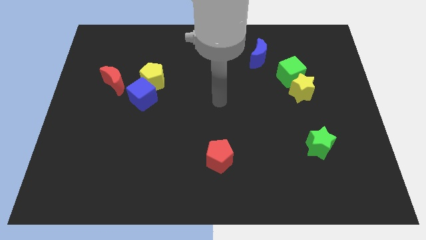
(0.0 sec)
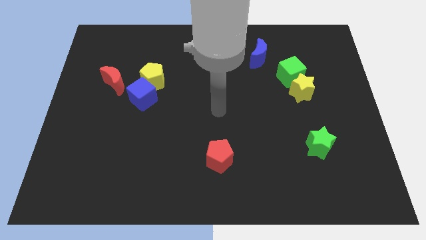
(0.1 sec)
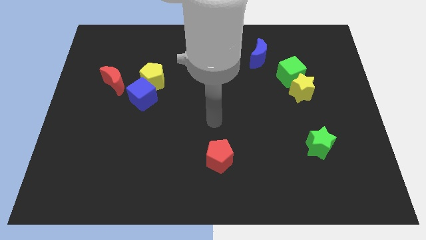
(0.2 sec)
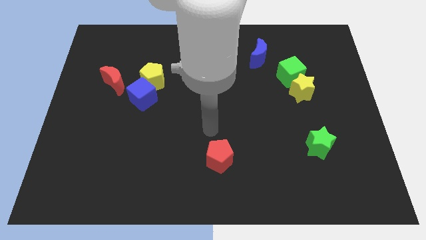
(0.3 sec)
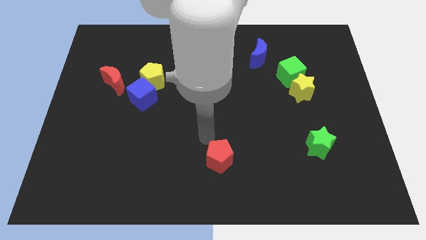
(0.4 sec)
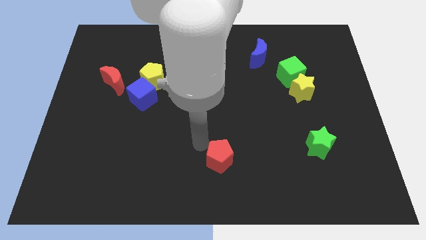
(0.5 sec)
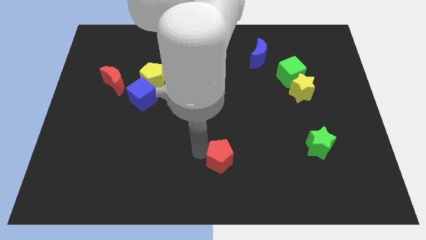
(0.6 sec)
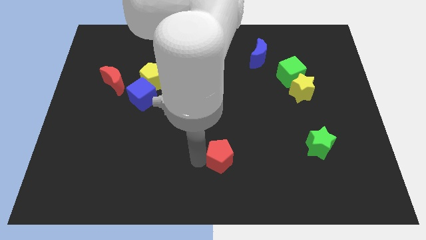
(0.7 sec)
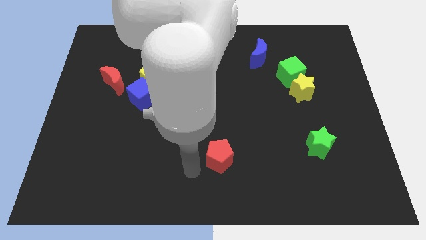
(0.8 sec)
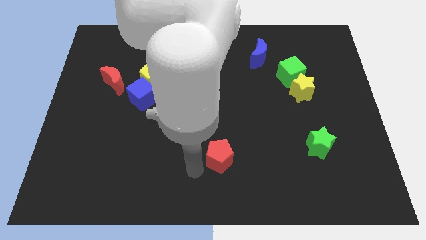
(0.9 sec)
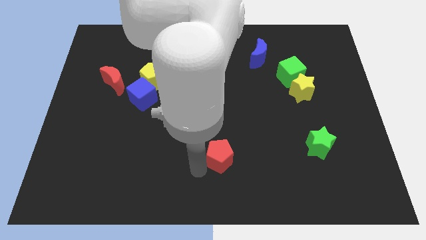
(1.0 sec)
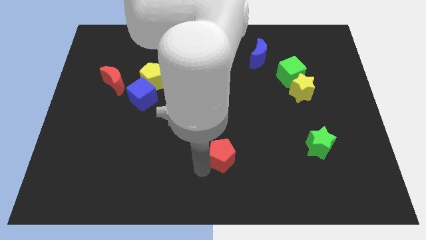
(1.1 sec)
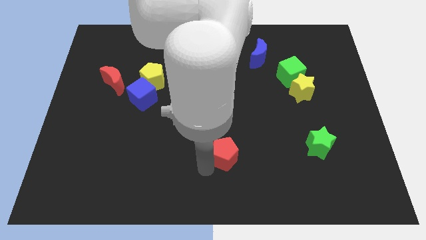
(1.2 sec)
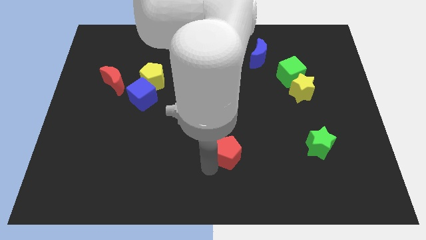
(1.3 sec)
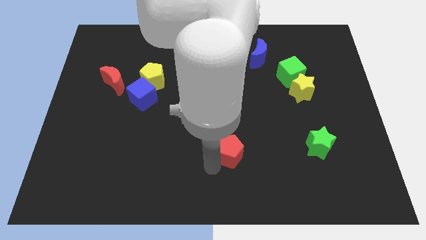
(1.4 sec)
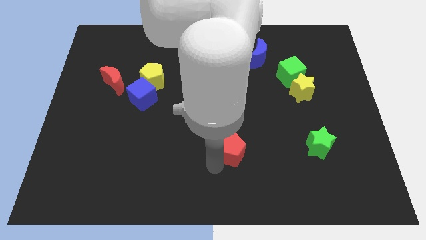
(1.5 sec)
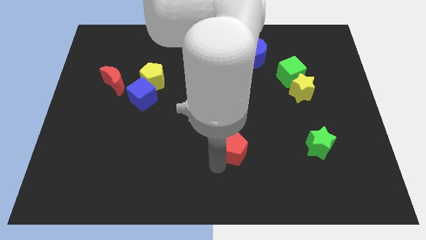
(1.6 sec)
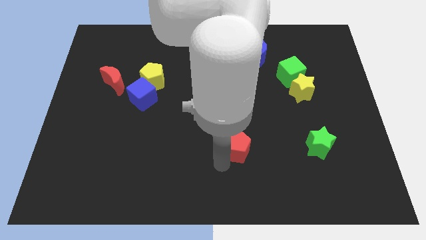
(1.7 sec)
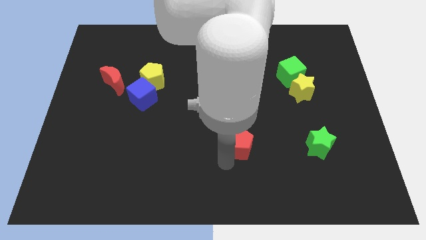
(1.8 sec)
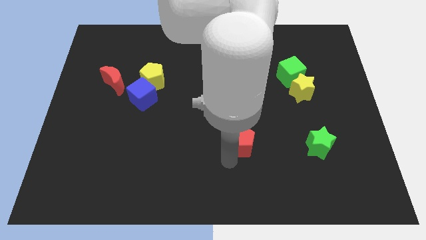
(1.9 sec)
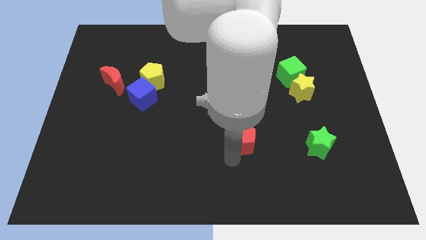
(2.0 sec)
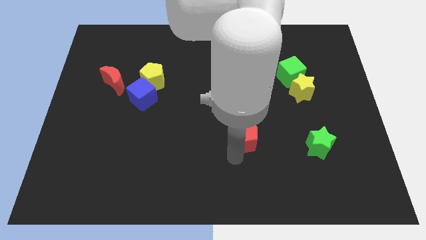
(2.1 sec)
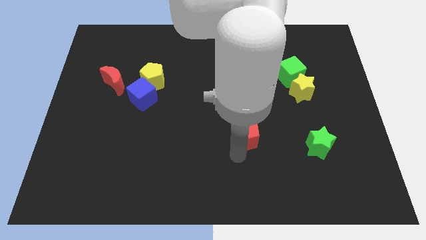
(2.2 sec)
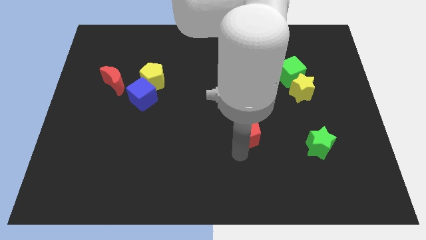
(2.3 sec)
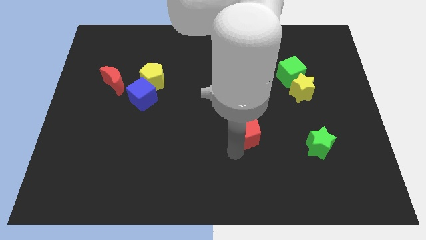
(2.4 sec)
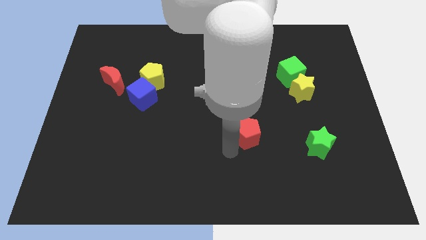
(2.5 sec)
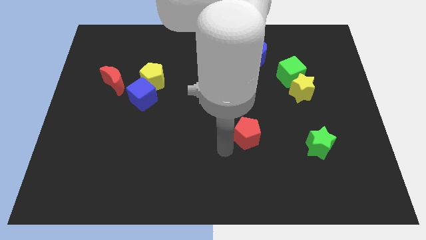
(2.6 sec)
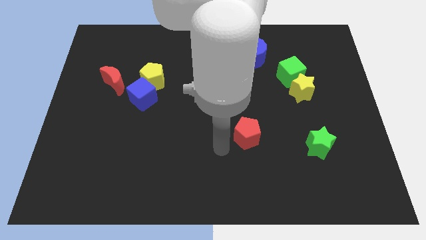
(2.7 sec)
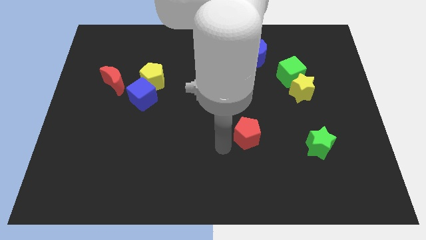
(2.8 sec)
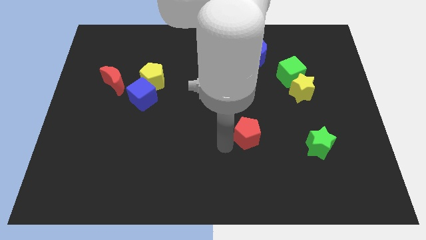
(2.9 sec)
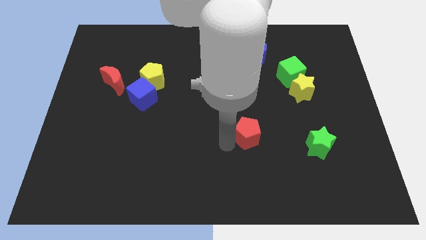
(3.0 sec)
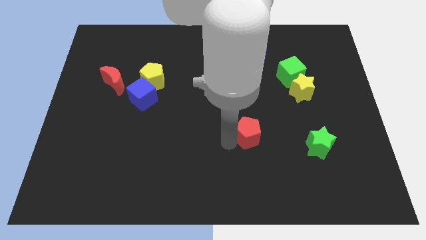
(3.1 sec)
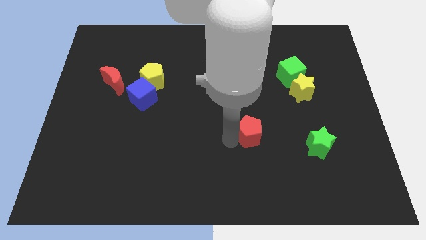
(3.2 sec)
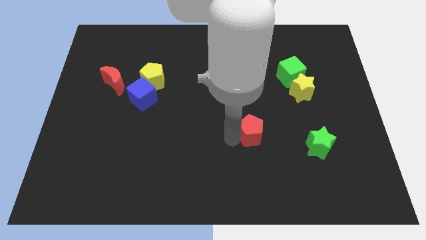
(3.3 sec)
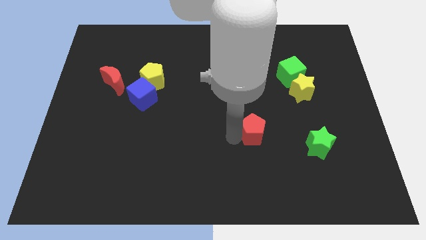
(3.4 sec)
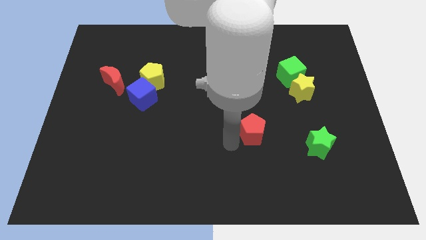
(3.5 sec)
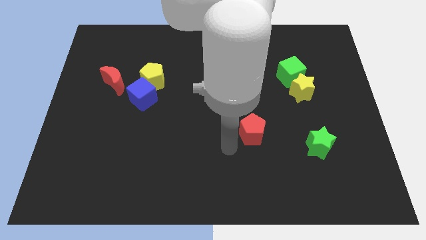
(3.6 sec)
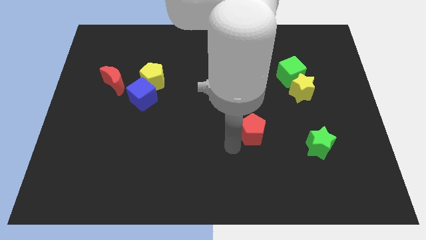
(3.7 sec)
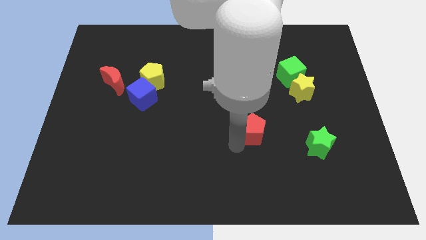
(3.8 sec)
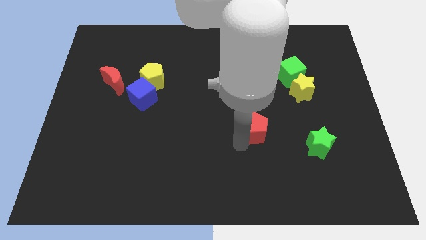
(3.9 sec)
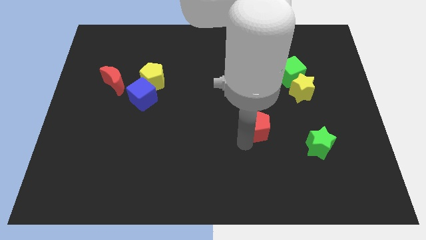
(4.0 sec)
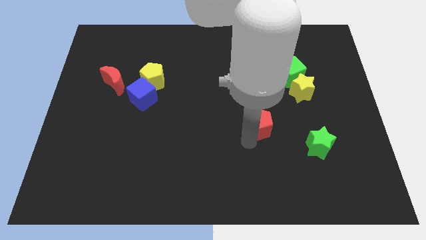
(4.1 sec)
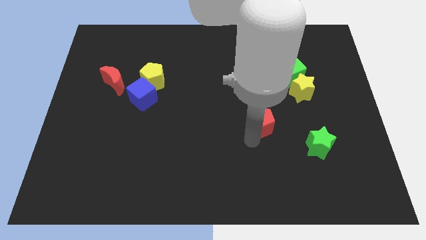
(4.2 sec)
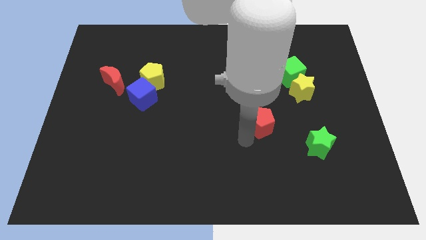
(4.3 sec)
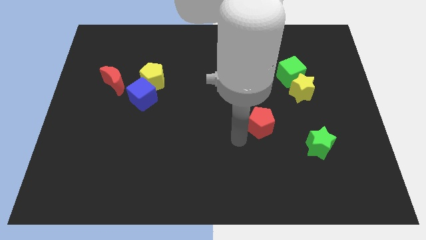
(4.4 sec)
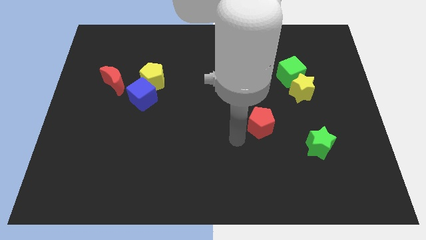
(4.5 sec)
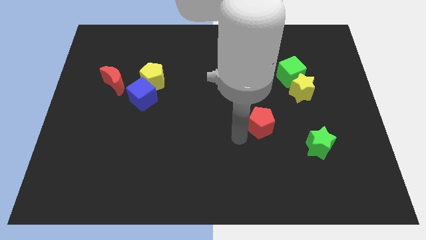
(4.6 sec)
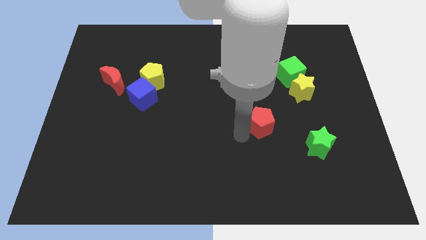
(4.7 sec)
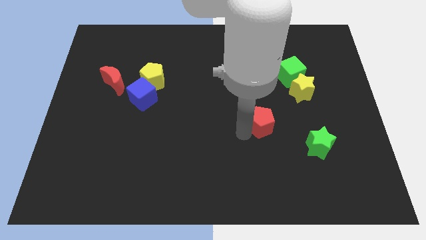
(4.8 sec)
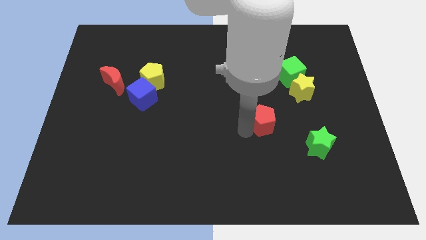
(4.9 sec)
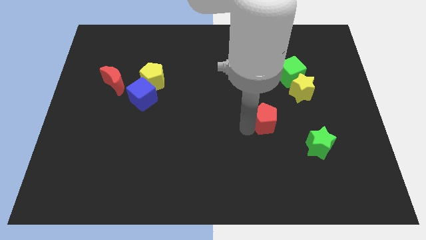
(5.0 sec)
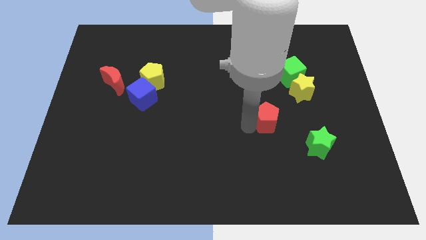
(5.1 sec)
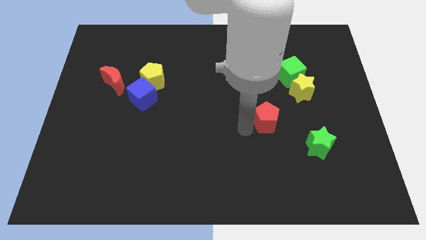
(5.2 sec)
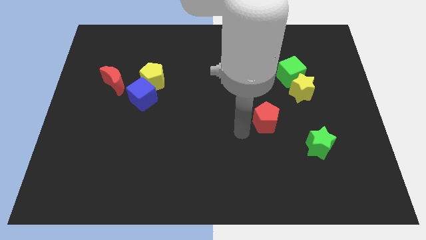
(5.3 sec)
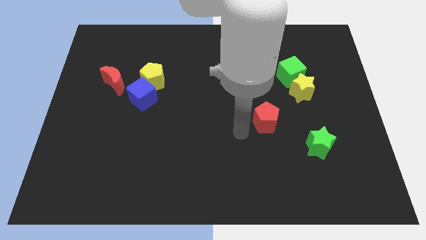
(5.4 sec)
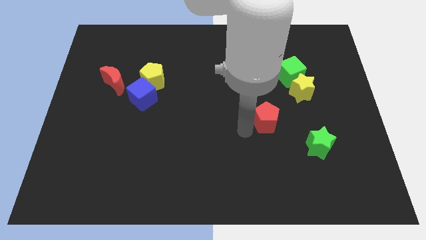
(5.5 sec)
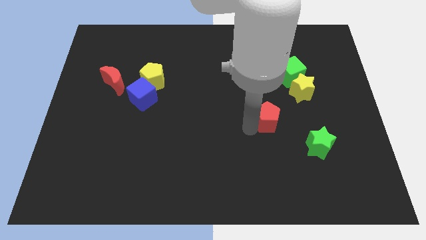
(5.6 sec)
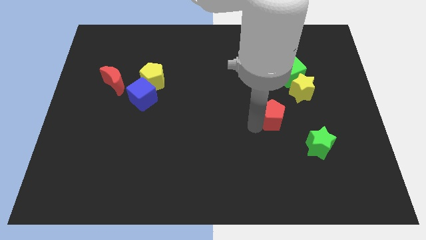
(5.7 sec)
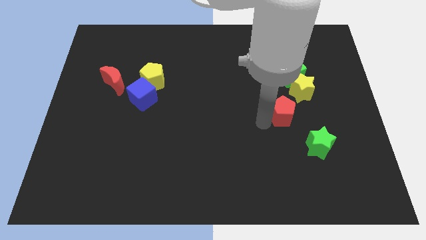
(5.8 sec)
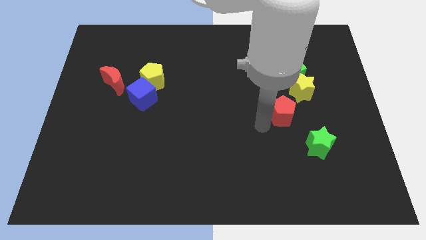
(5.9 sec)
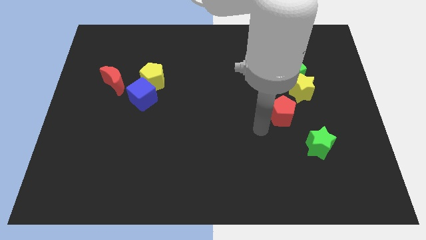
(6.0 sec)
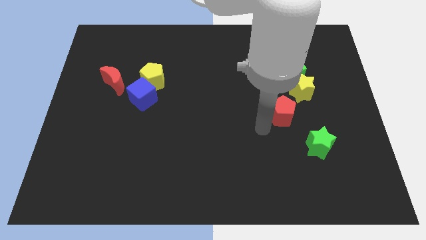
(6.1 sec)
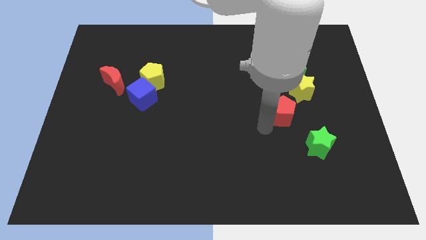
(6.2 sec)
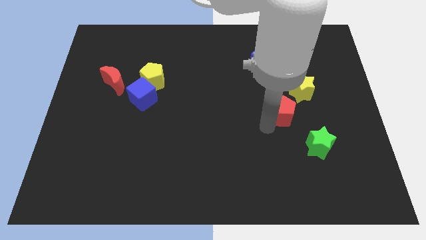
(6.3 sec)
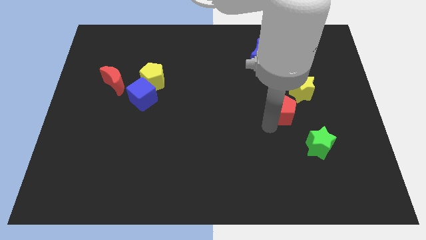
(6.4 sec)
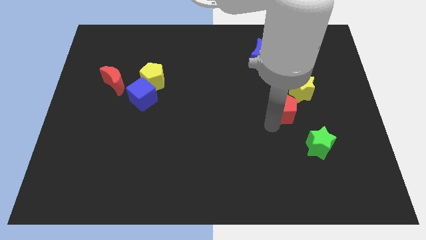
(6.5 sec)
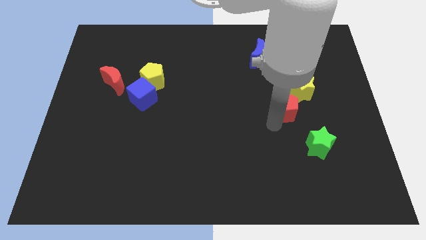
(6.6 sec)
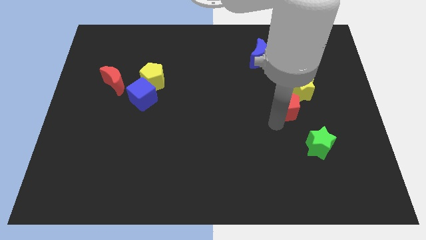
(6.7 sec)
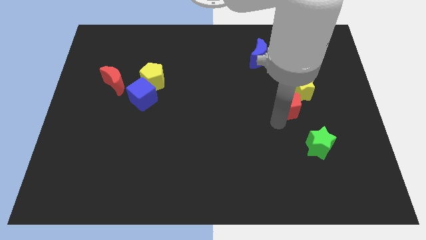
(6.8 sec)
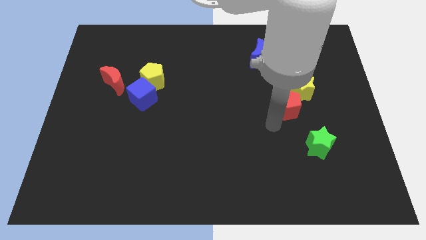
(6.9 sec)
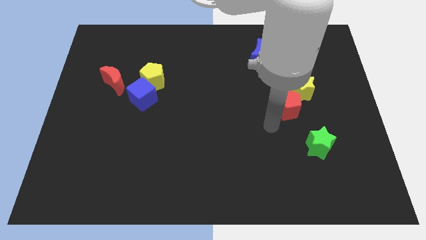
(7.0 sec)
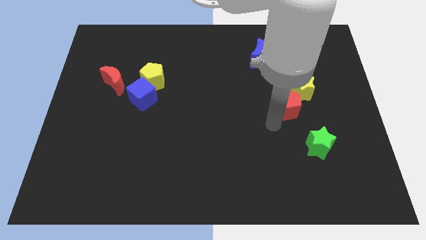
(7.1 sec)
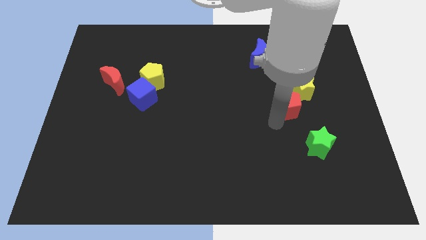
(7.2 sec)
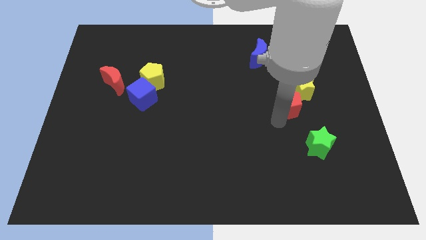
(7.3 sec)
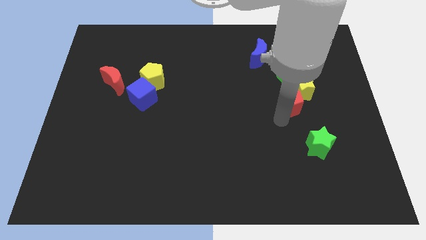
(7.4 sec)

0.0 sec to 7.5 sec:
put the red pentagon to the yellow star

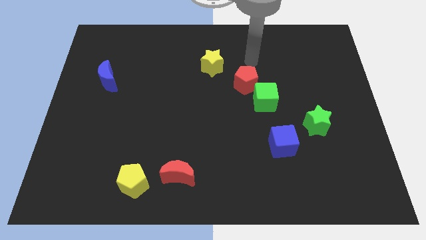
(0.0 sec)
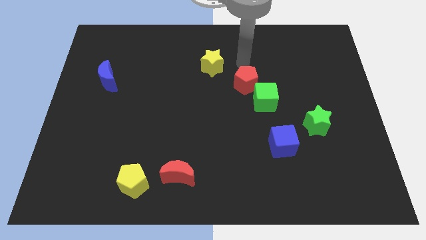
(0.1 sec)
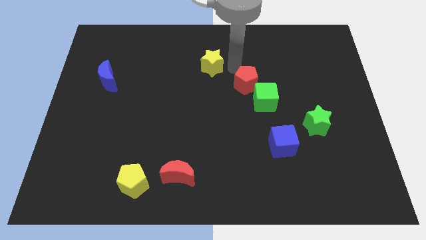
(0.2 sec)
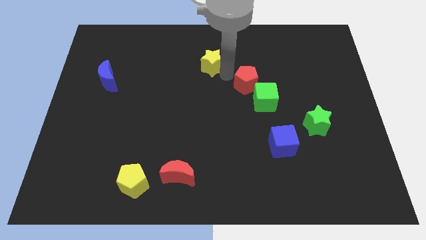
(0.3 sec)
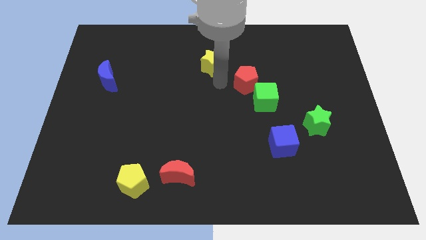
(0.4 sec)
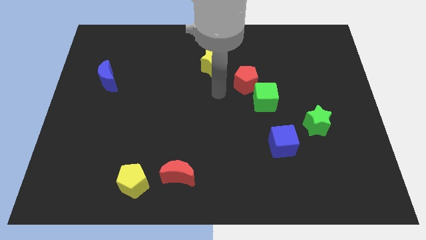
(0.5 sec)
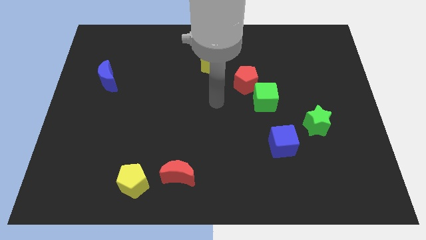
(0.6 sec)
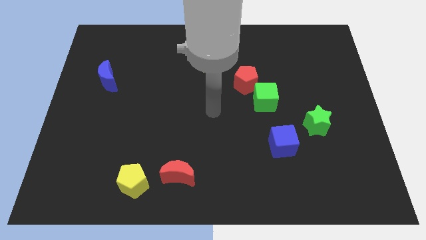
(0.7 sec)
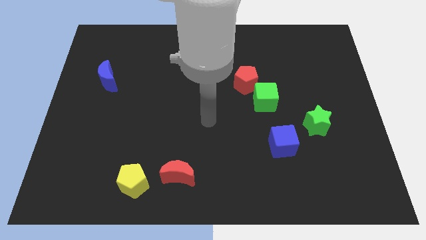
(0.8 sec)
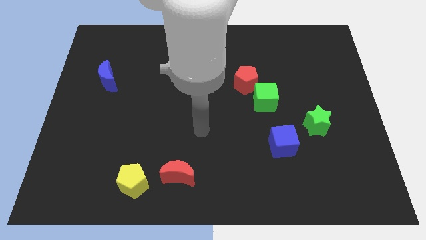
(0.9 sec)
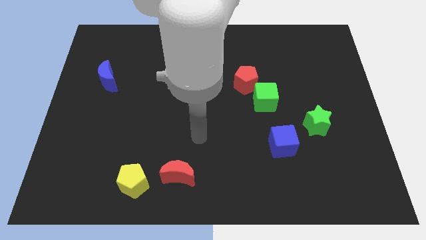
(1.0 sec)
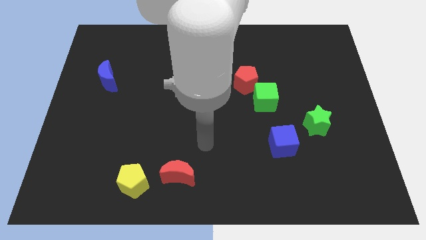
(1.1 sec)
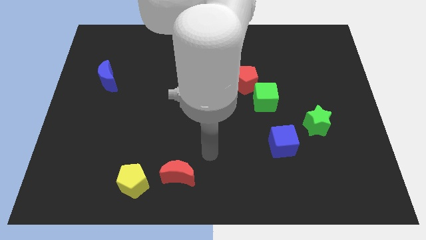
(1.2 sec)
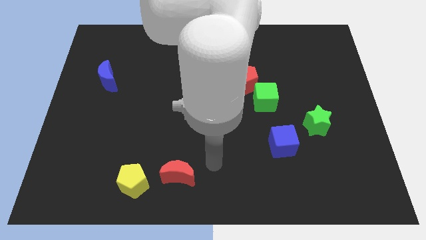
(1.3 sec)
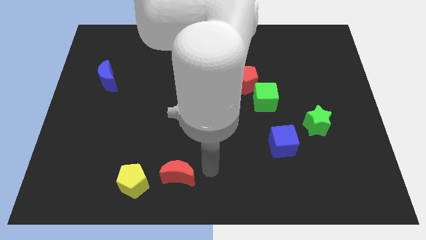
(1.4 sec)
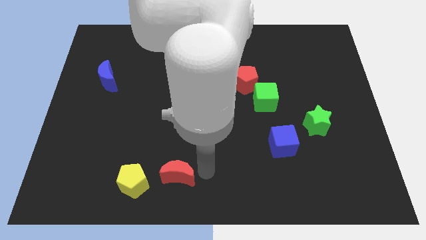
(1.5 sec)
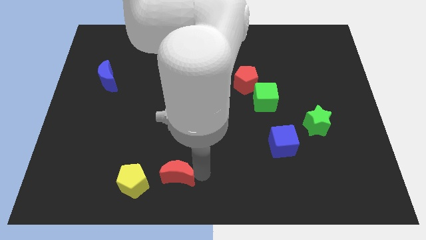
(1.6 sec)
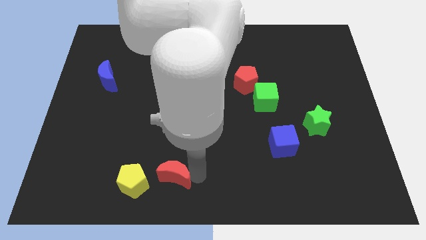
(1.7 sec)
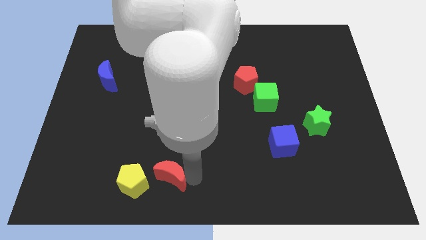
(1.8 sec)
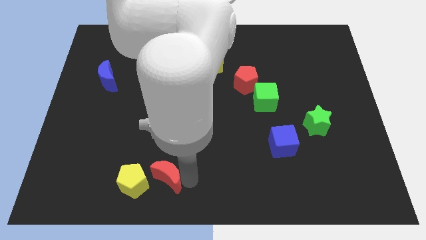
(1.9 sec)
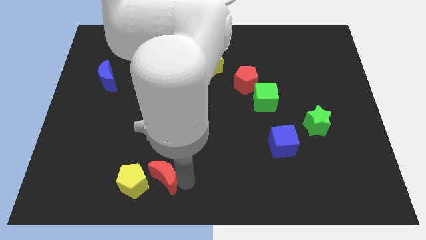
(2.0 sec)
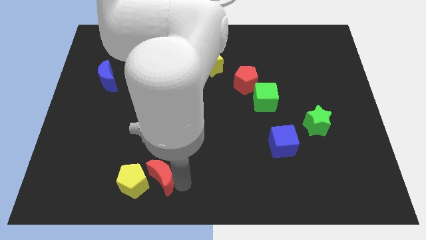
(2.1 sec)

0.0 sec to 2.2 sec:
slide the red moon to the yellow pentagon
